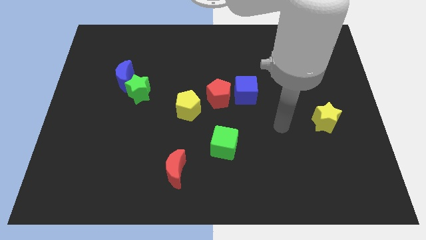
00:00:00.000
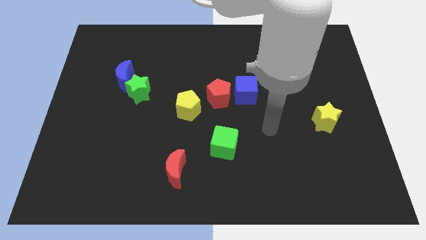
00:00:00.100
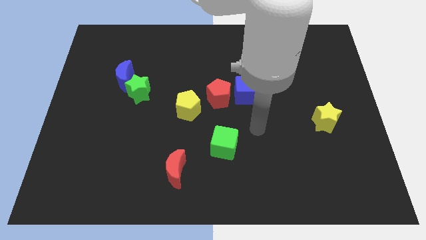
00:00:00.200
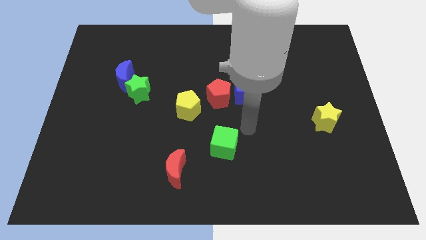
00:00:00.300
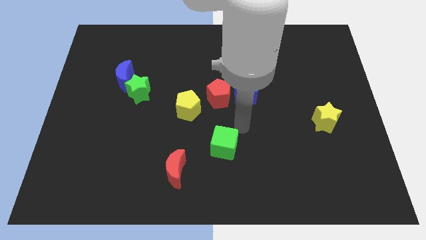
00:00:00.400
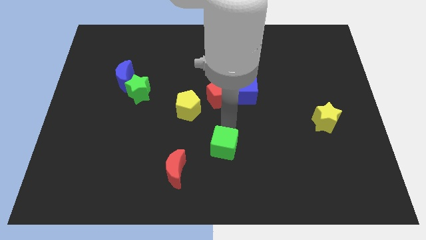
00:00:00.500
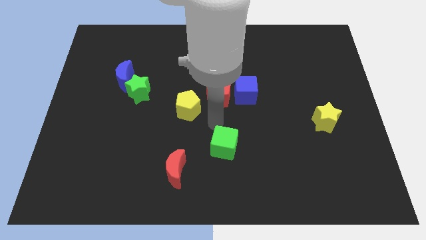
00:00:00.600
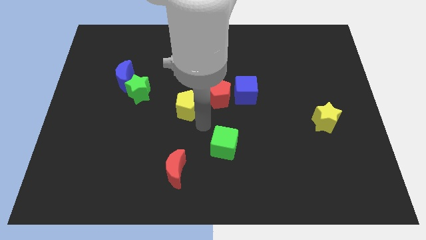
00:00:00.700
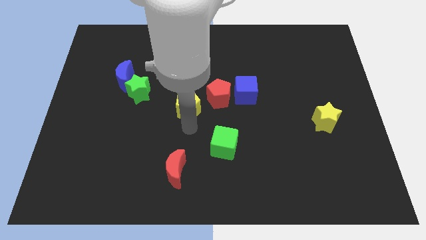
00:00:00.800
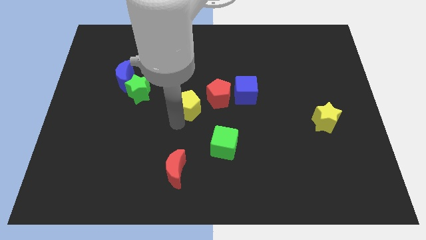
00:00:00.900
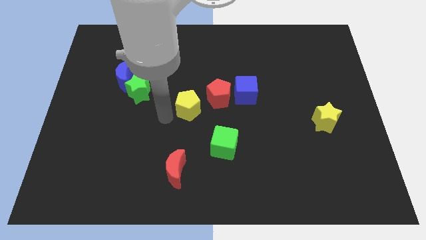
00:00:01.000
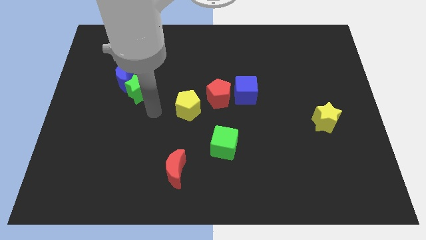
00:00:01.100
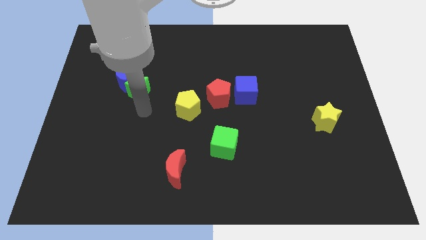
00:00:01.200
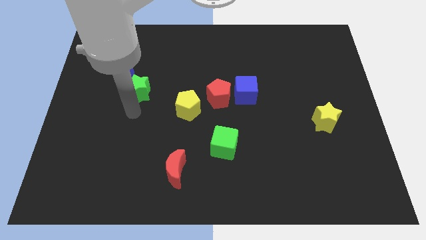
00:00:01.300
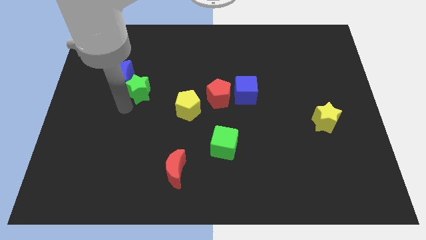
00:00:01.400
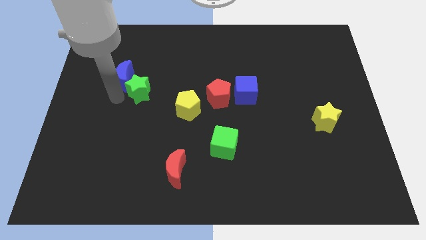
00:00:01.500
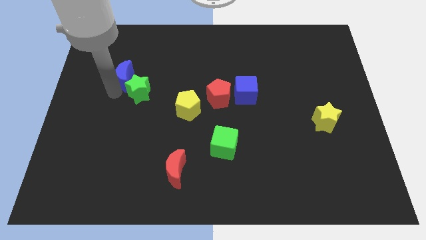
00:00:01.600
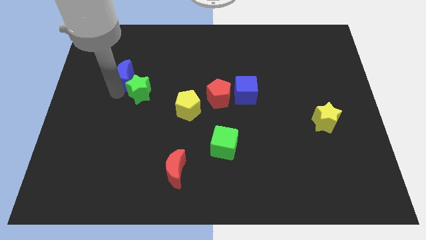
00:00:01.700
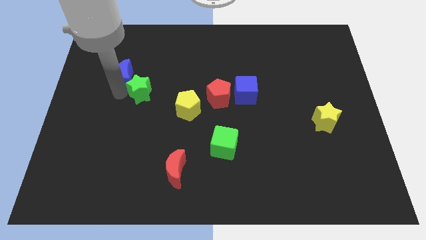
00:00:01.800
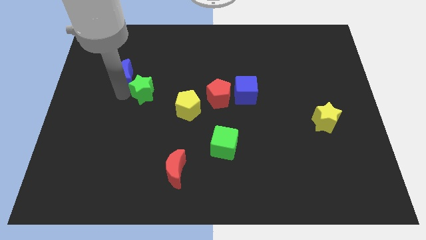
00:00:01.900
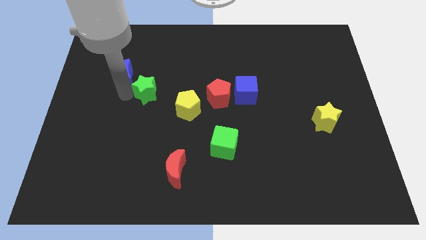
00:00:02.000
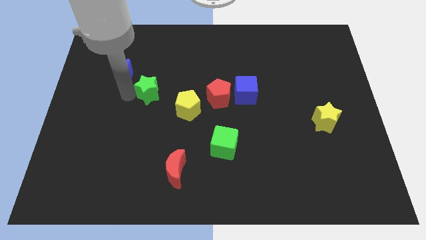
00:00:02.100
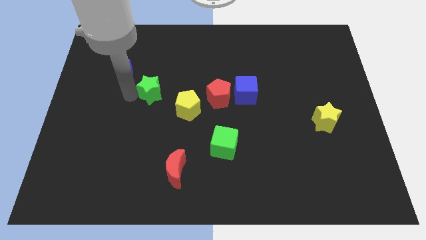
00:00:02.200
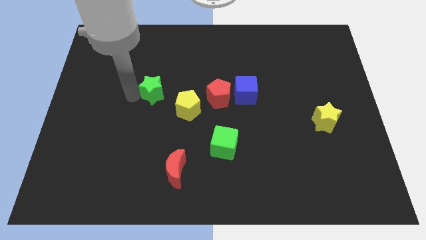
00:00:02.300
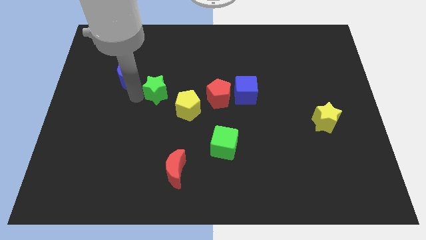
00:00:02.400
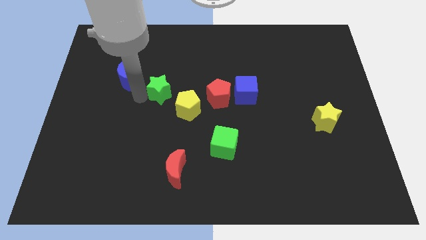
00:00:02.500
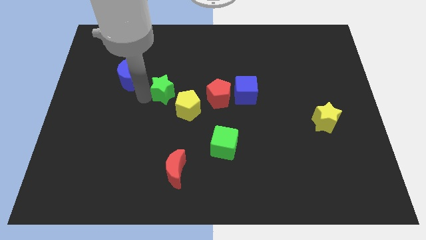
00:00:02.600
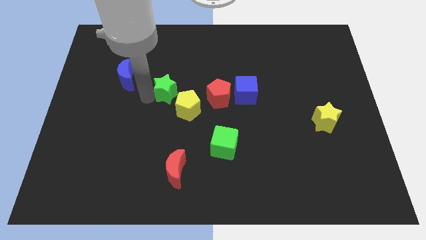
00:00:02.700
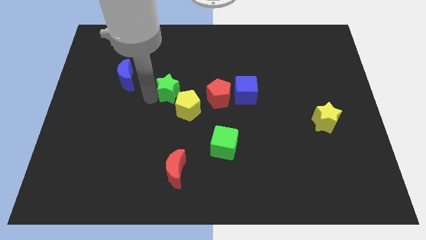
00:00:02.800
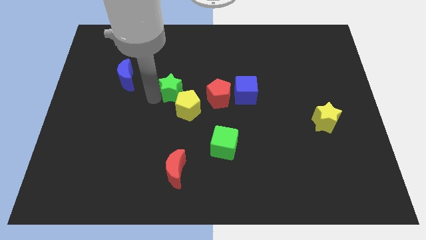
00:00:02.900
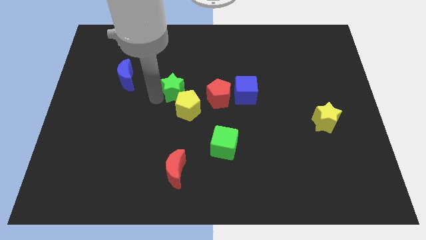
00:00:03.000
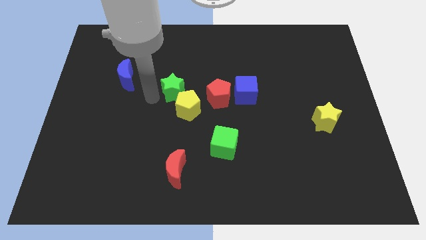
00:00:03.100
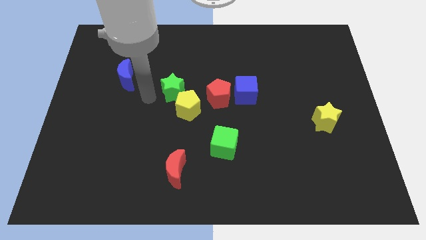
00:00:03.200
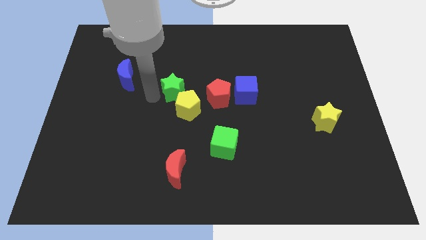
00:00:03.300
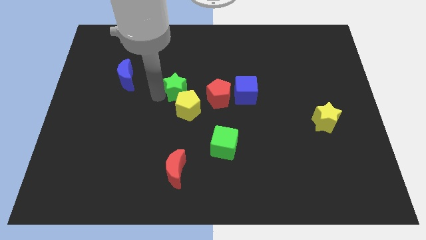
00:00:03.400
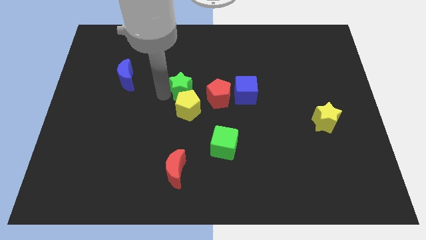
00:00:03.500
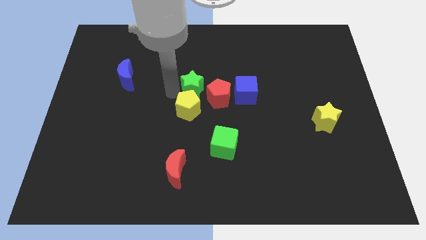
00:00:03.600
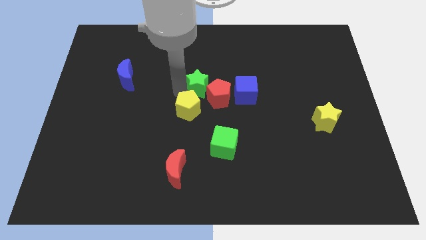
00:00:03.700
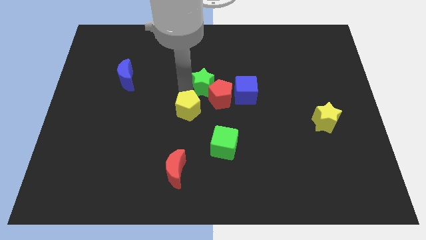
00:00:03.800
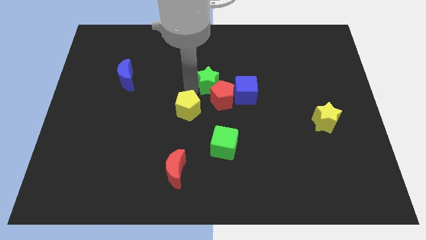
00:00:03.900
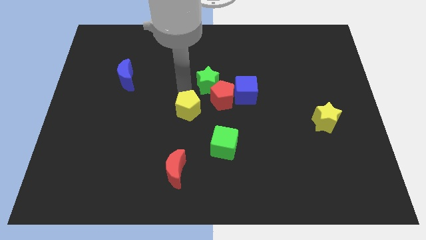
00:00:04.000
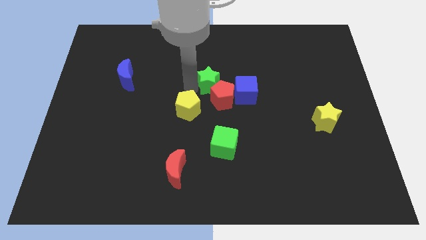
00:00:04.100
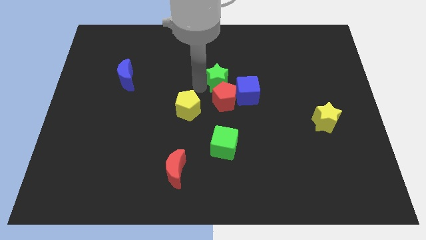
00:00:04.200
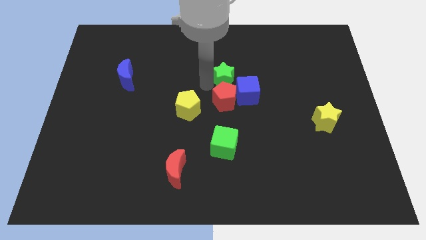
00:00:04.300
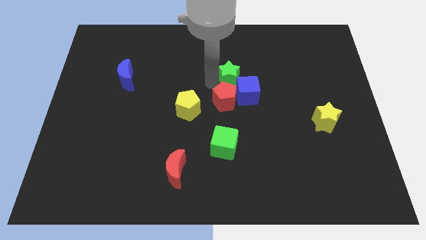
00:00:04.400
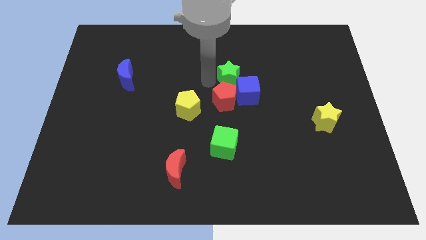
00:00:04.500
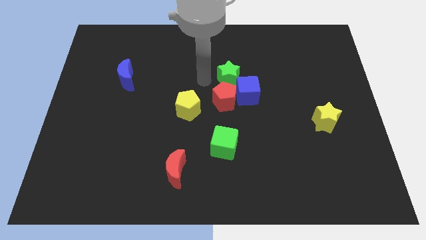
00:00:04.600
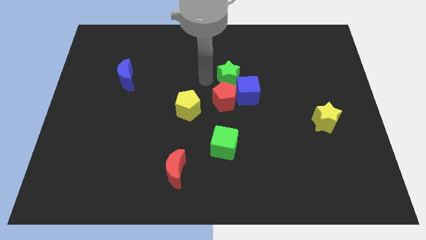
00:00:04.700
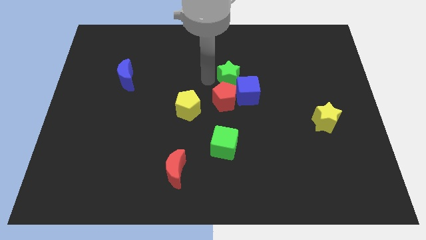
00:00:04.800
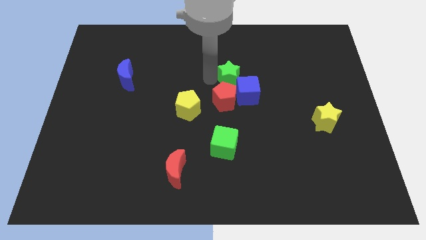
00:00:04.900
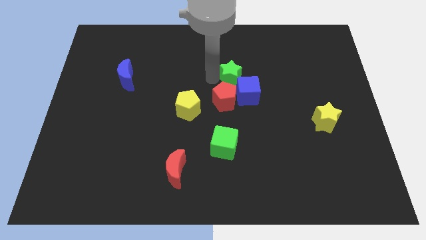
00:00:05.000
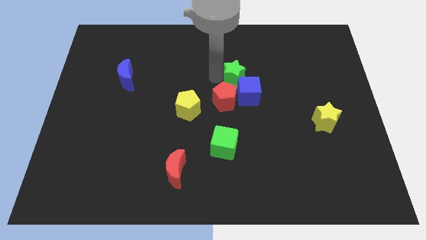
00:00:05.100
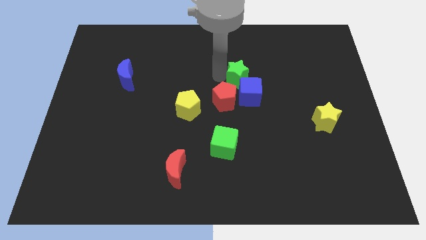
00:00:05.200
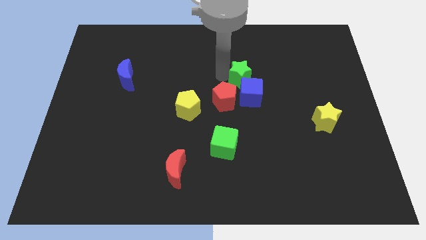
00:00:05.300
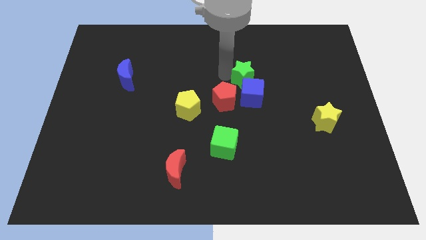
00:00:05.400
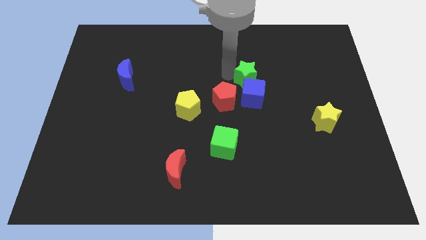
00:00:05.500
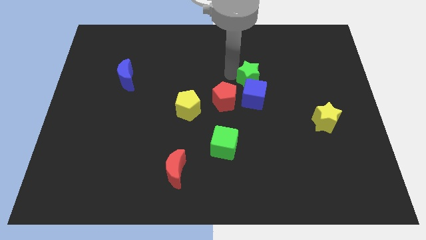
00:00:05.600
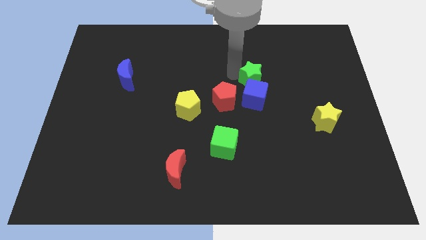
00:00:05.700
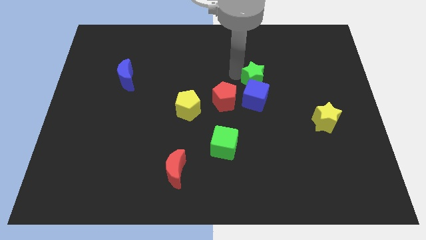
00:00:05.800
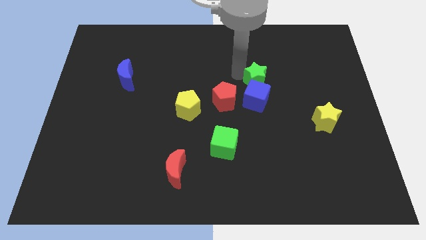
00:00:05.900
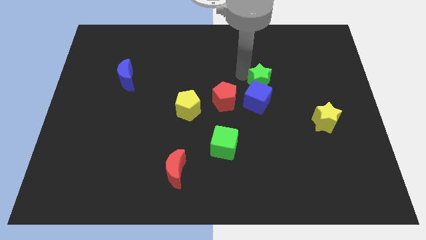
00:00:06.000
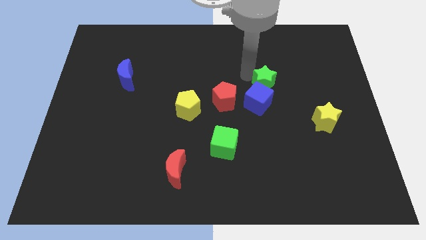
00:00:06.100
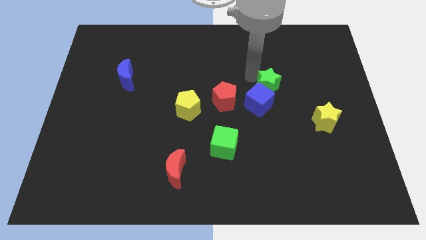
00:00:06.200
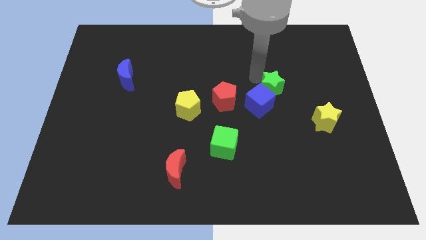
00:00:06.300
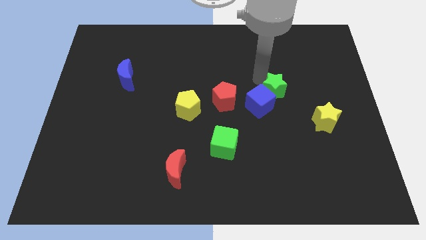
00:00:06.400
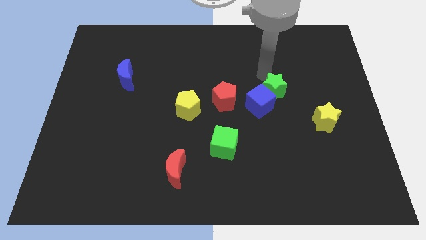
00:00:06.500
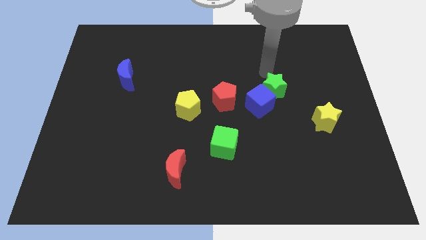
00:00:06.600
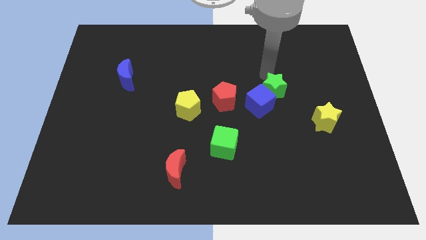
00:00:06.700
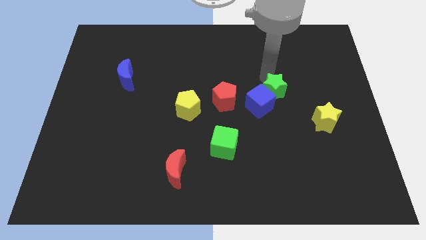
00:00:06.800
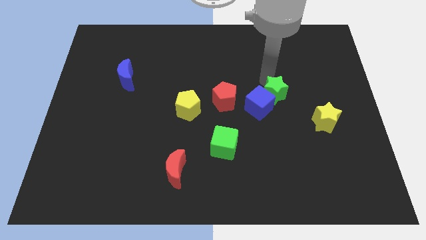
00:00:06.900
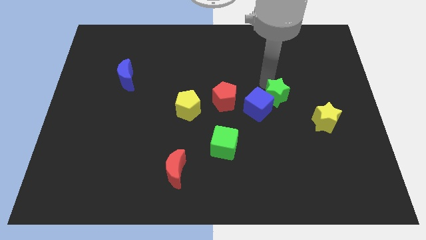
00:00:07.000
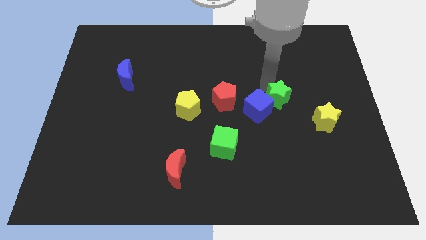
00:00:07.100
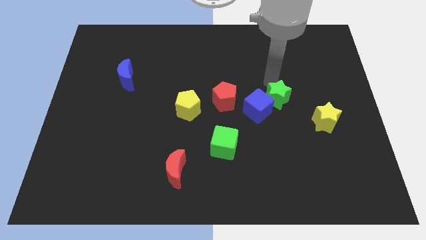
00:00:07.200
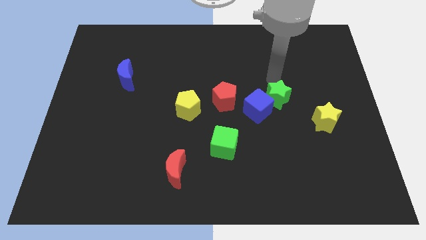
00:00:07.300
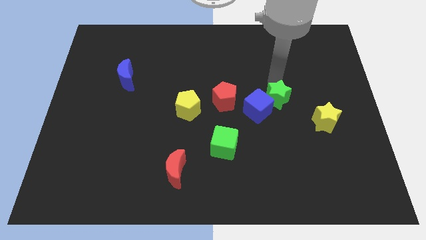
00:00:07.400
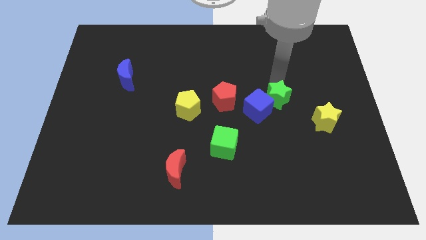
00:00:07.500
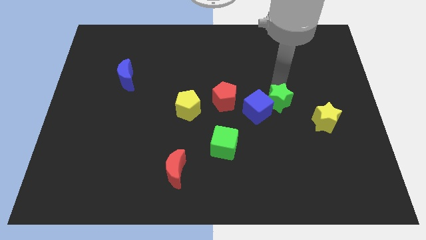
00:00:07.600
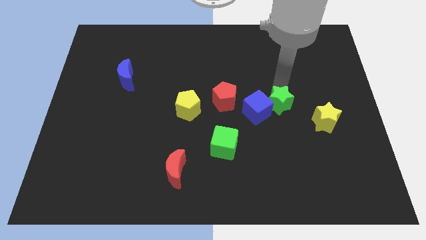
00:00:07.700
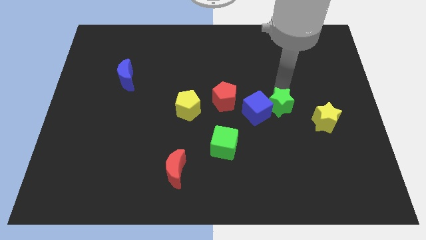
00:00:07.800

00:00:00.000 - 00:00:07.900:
push the green star diagonally down and to the right of the blue cube

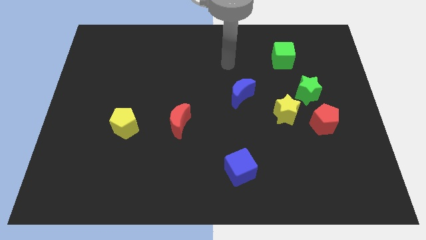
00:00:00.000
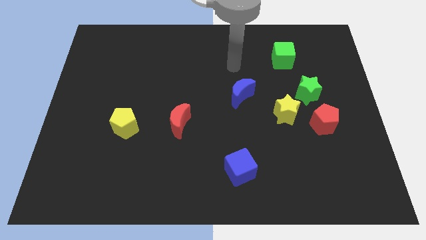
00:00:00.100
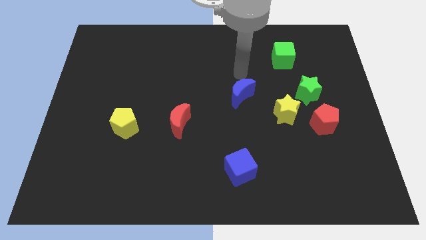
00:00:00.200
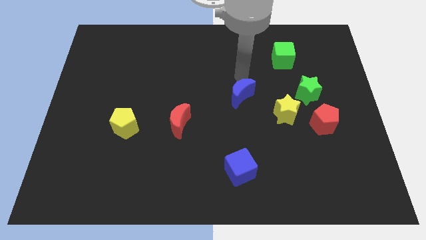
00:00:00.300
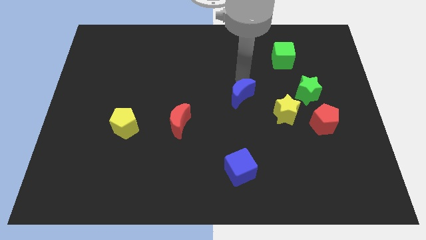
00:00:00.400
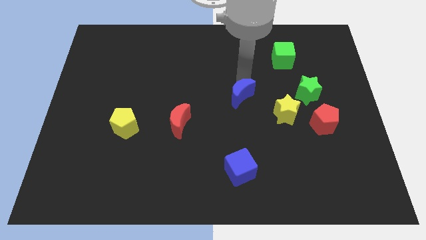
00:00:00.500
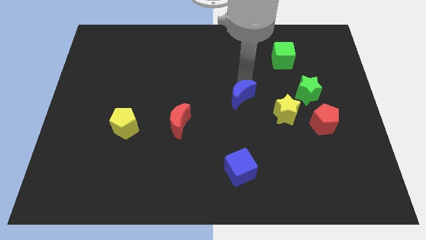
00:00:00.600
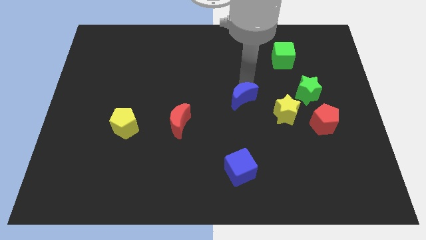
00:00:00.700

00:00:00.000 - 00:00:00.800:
move the blue moon just left of the yellow star
